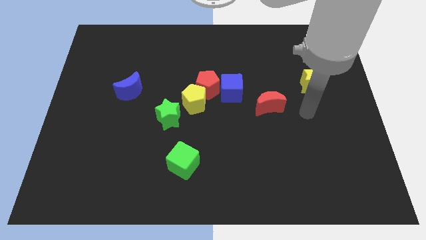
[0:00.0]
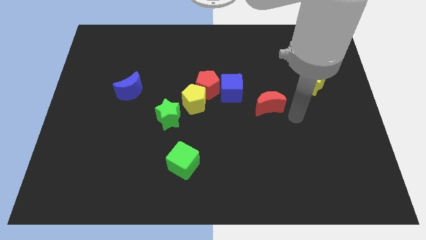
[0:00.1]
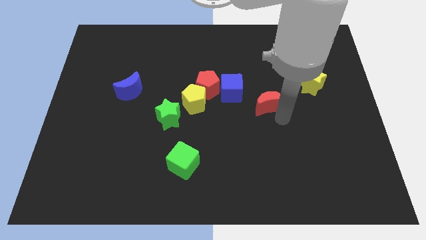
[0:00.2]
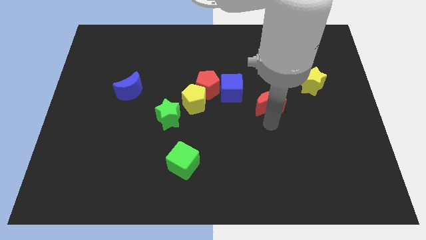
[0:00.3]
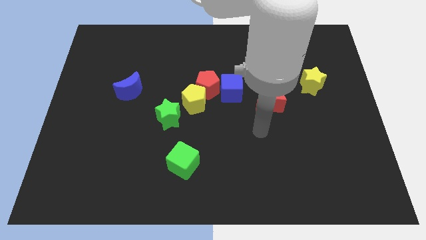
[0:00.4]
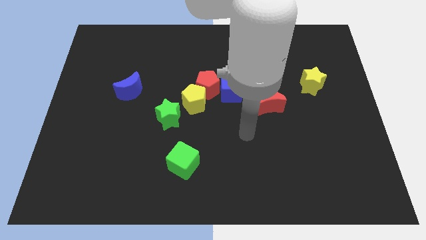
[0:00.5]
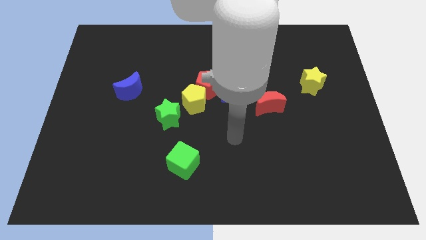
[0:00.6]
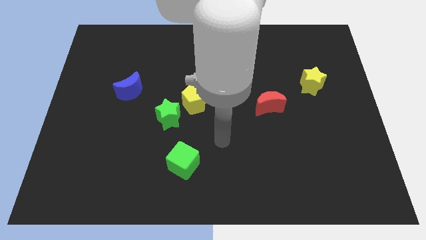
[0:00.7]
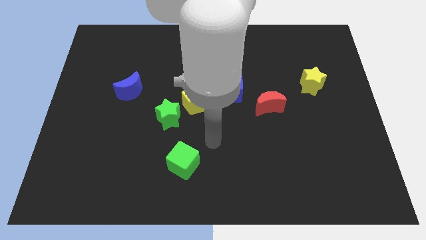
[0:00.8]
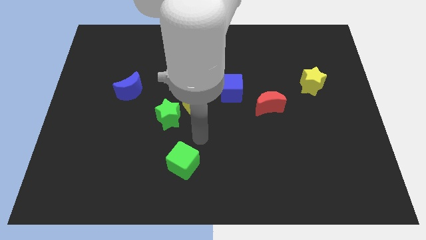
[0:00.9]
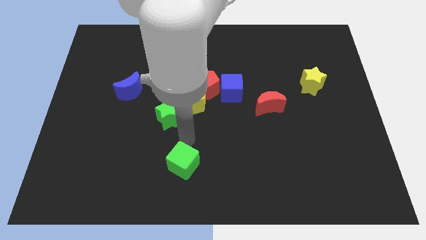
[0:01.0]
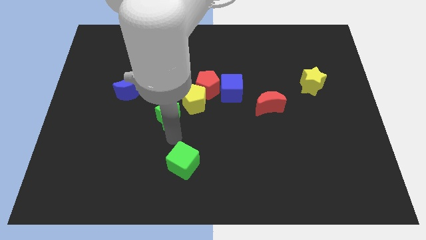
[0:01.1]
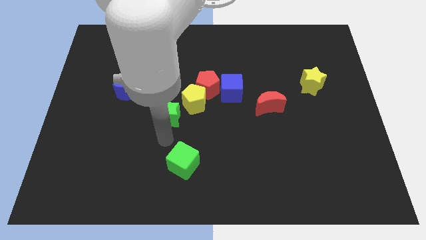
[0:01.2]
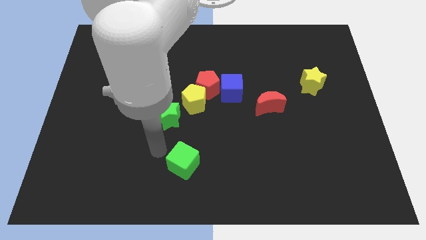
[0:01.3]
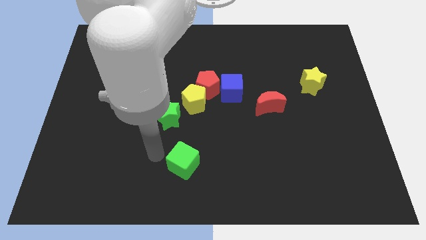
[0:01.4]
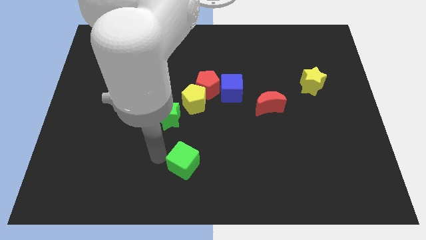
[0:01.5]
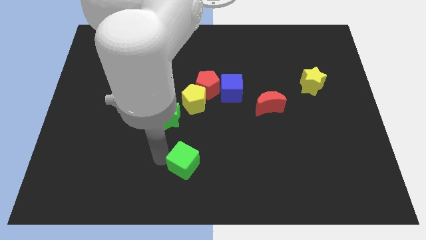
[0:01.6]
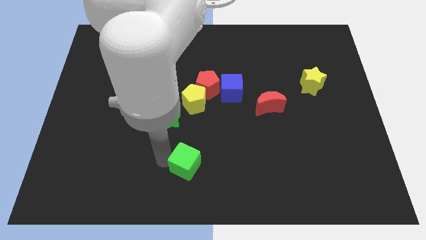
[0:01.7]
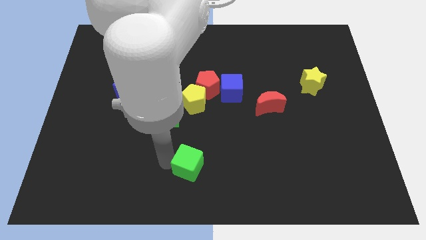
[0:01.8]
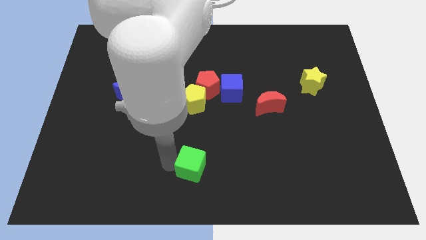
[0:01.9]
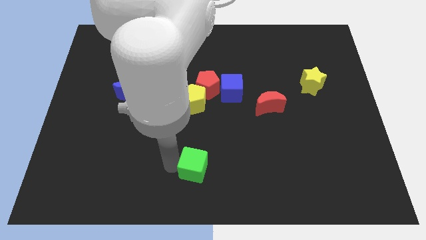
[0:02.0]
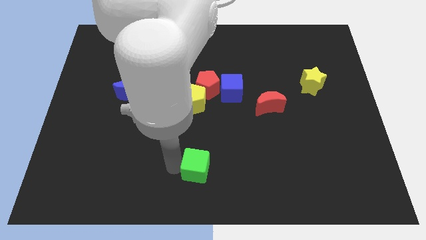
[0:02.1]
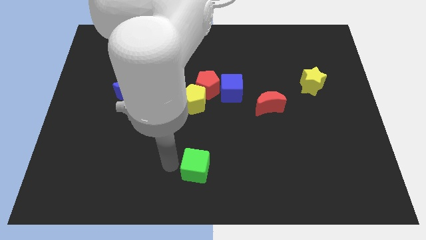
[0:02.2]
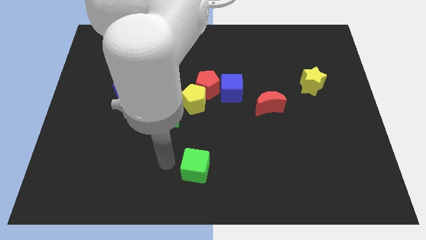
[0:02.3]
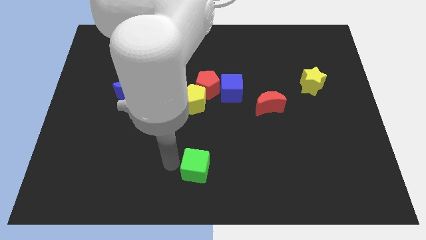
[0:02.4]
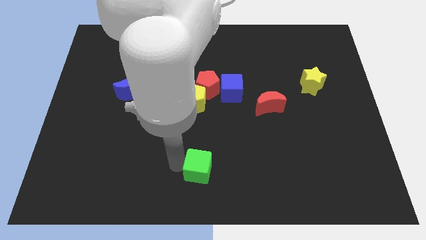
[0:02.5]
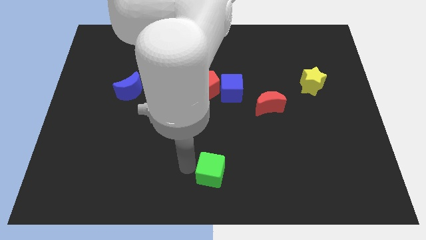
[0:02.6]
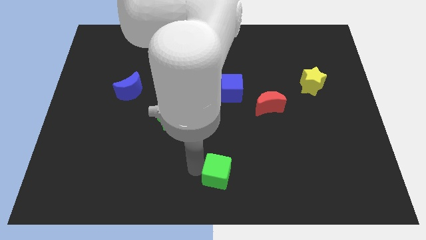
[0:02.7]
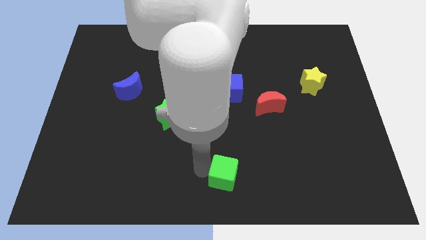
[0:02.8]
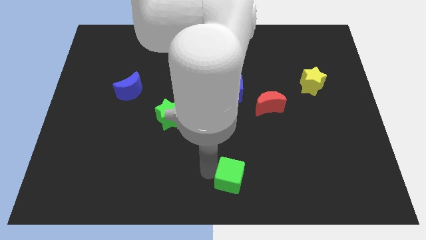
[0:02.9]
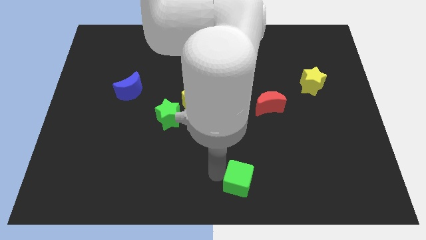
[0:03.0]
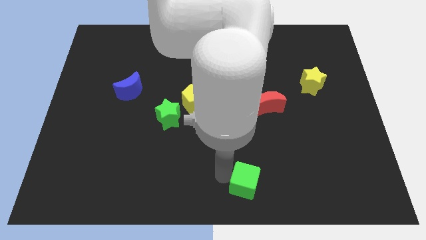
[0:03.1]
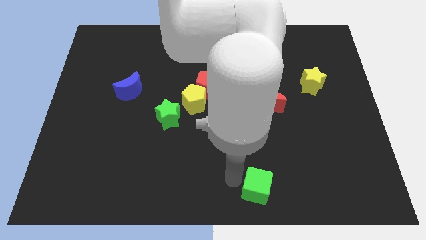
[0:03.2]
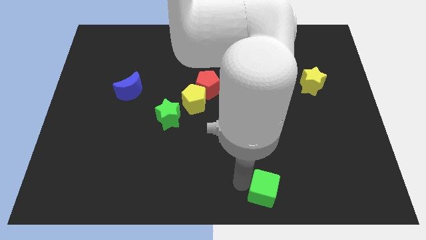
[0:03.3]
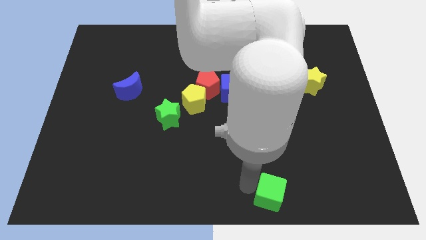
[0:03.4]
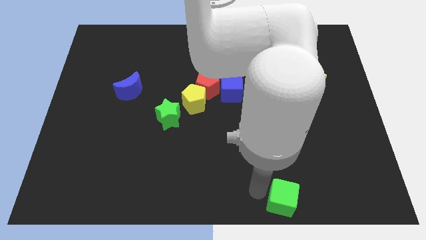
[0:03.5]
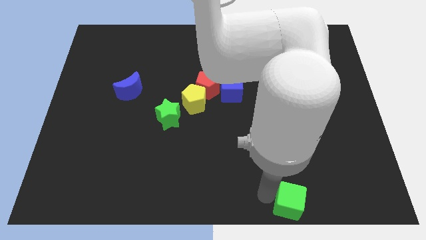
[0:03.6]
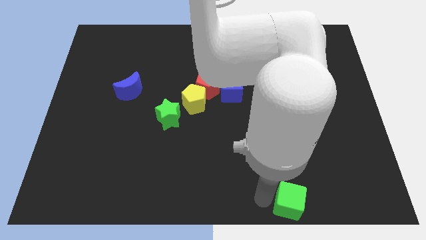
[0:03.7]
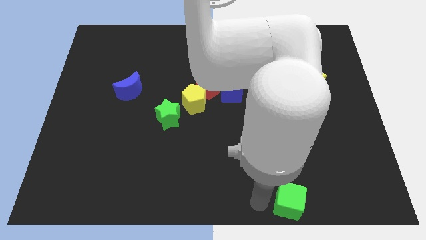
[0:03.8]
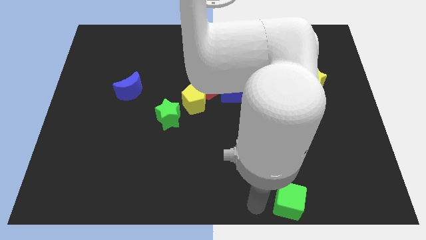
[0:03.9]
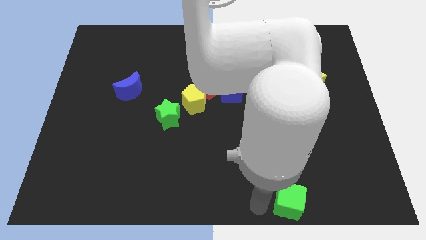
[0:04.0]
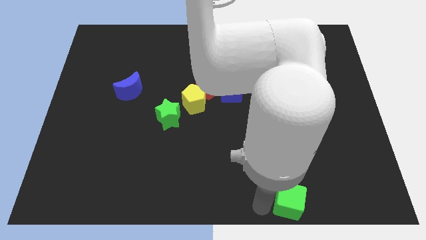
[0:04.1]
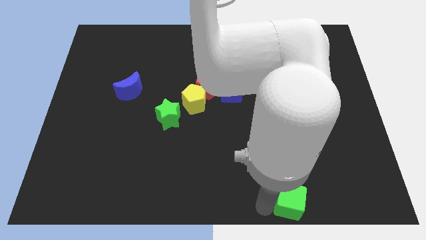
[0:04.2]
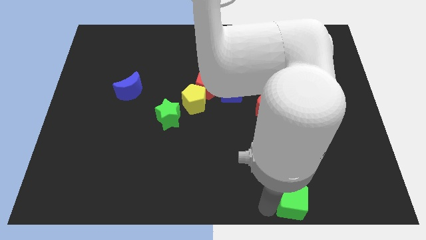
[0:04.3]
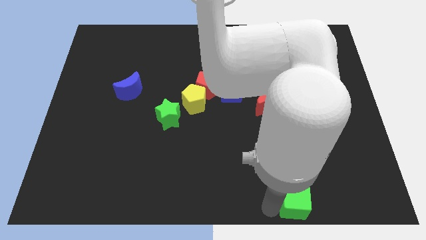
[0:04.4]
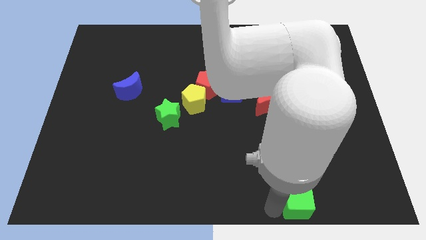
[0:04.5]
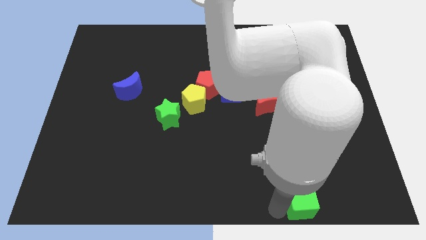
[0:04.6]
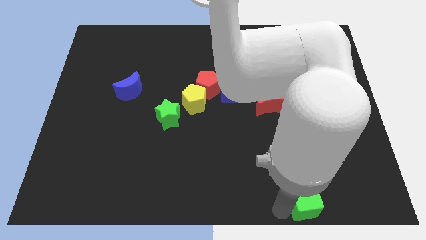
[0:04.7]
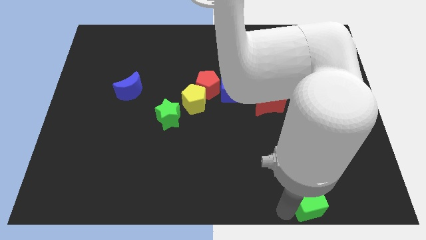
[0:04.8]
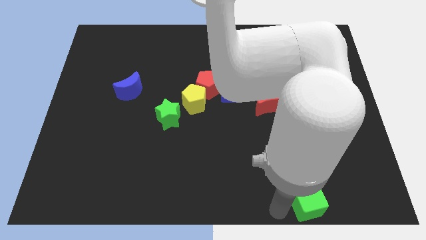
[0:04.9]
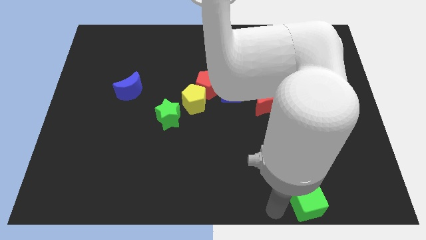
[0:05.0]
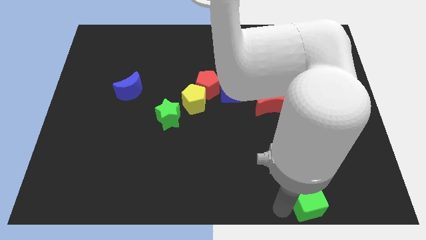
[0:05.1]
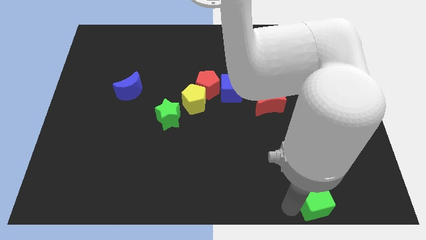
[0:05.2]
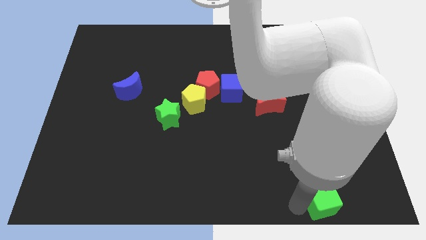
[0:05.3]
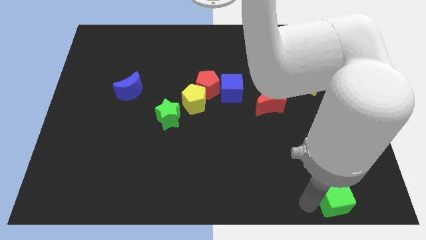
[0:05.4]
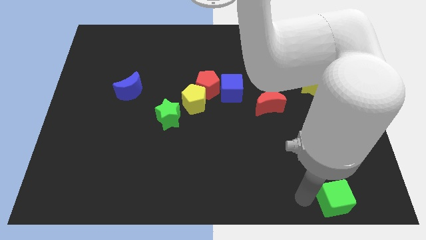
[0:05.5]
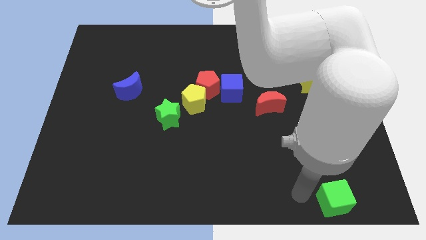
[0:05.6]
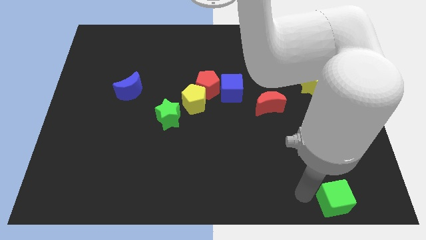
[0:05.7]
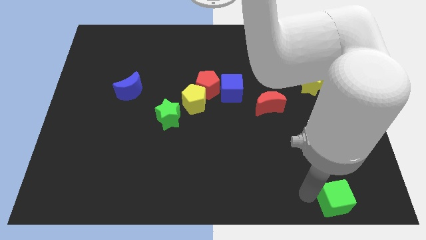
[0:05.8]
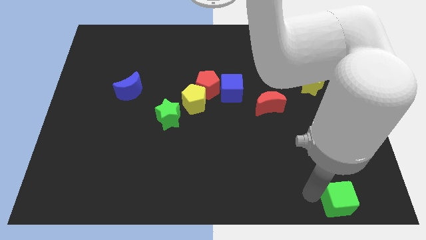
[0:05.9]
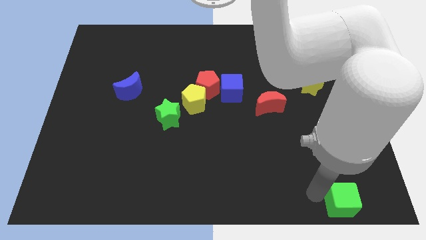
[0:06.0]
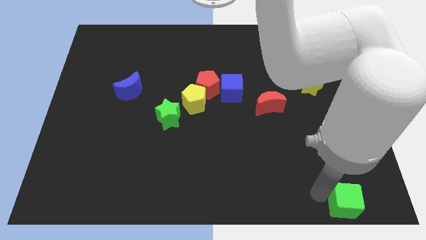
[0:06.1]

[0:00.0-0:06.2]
push the green cube to the bottom right of the board
